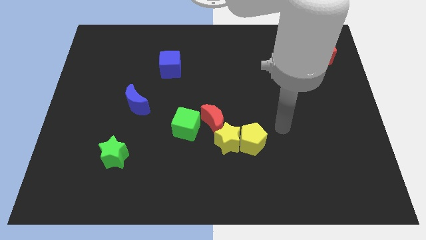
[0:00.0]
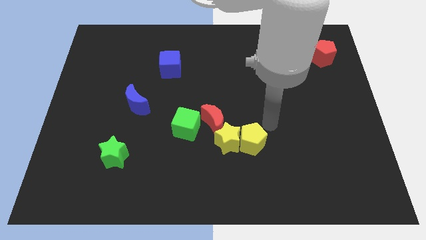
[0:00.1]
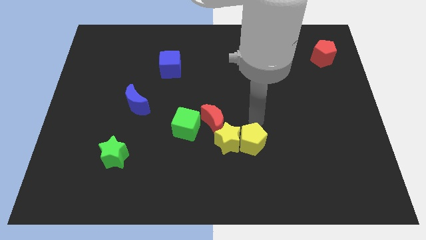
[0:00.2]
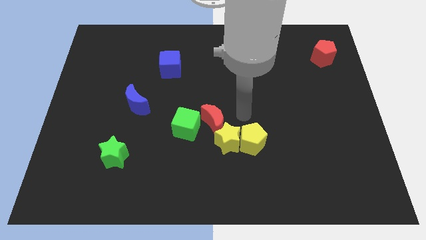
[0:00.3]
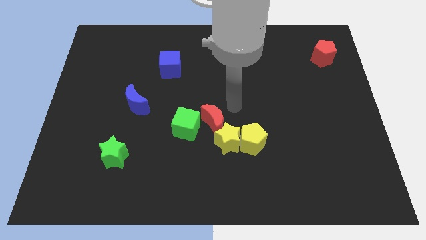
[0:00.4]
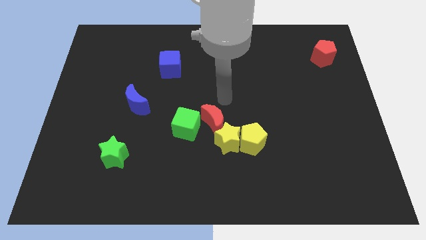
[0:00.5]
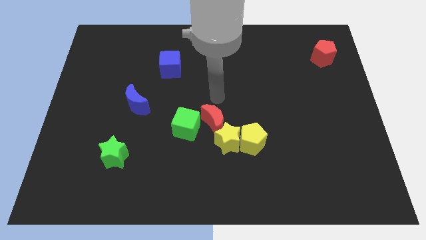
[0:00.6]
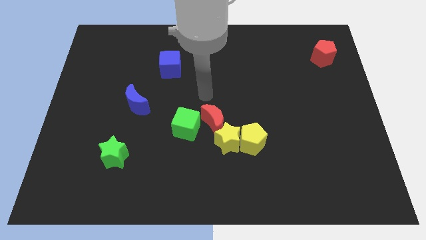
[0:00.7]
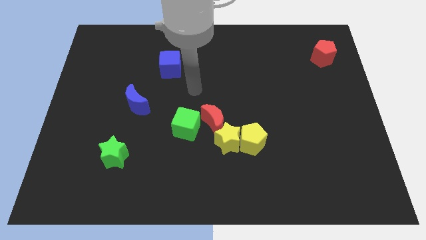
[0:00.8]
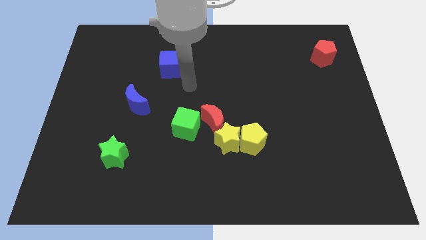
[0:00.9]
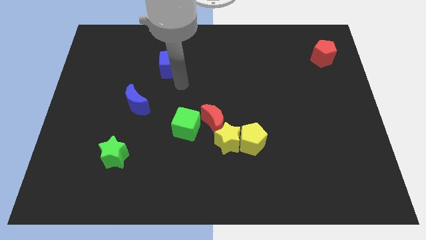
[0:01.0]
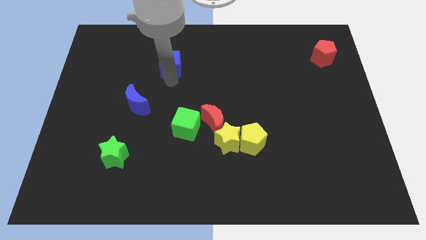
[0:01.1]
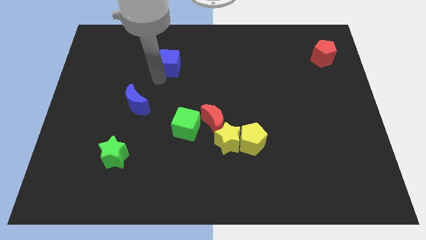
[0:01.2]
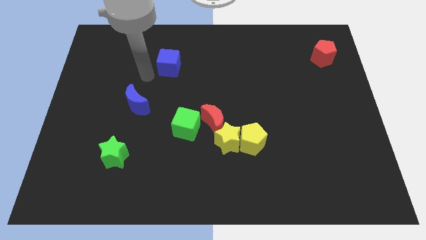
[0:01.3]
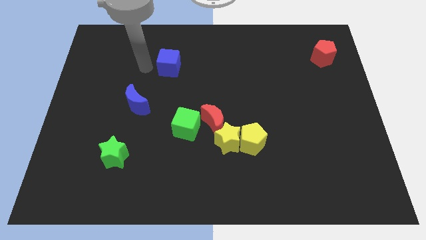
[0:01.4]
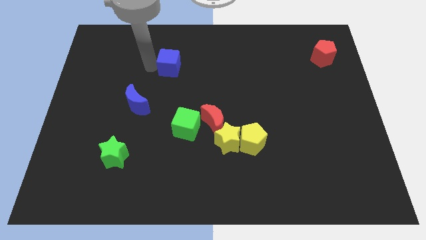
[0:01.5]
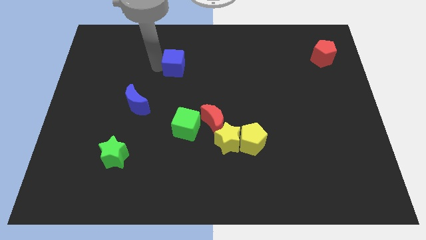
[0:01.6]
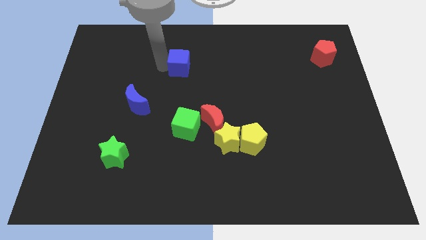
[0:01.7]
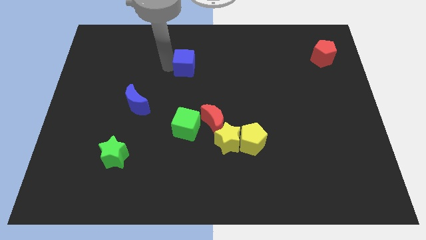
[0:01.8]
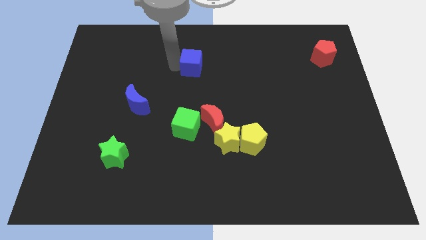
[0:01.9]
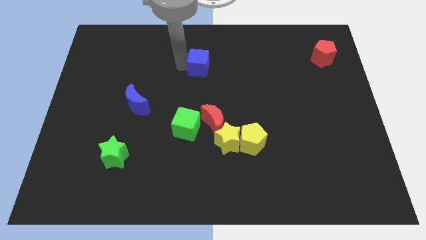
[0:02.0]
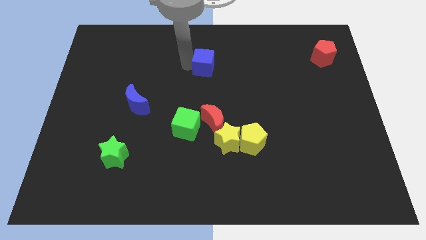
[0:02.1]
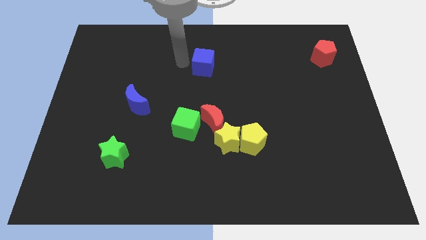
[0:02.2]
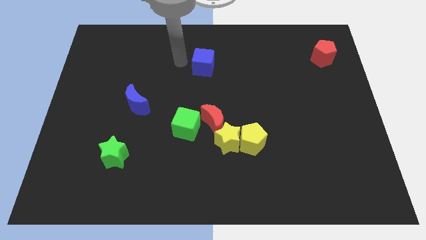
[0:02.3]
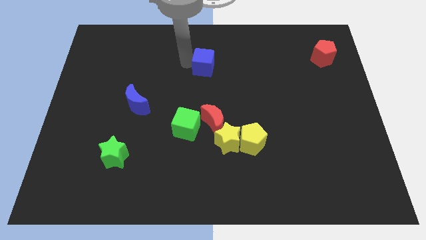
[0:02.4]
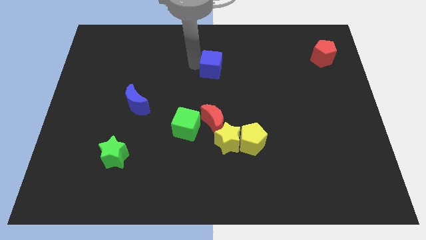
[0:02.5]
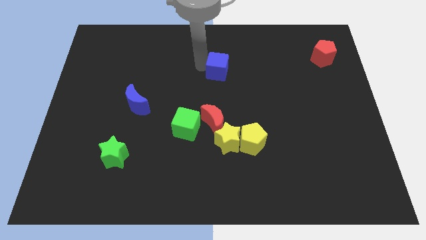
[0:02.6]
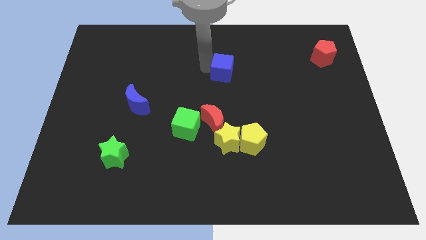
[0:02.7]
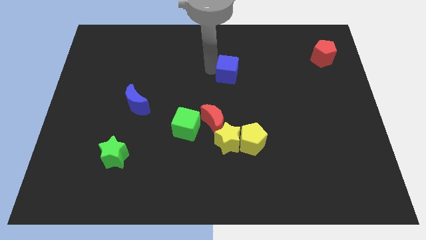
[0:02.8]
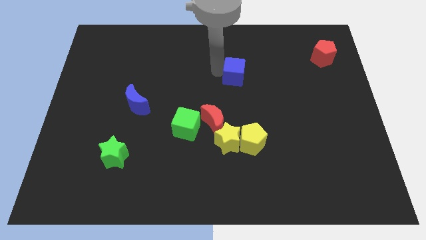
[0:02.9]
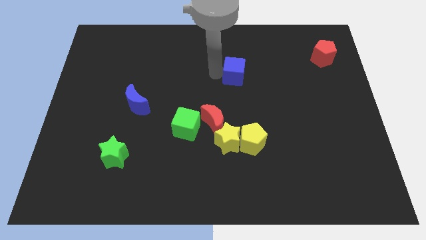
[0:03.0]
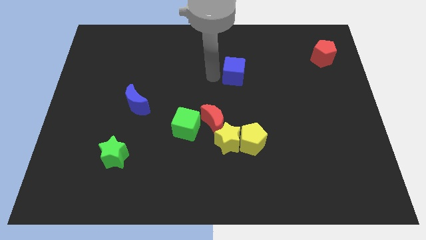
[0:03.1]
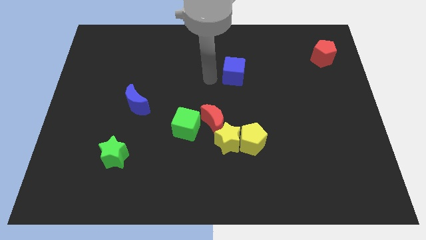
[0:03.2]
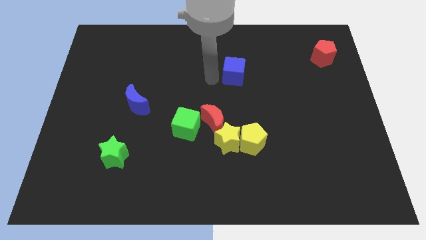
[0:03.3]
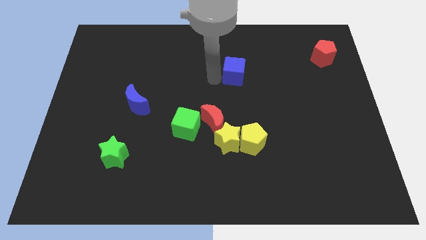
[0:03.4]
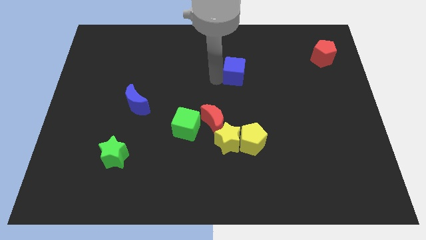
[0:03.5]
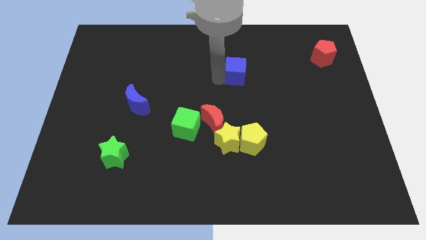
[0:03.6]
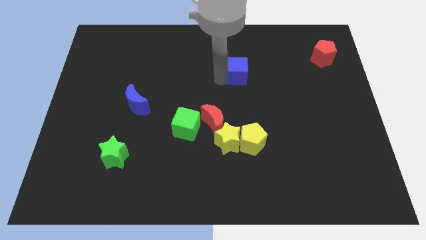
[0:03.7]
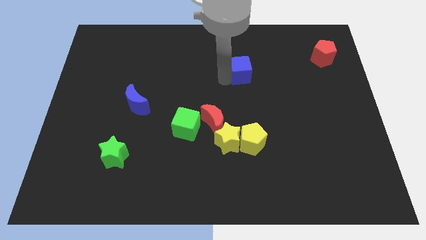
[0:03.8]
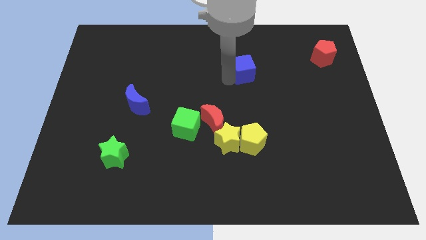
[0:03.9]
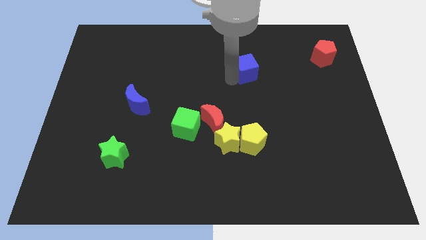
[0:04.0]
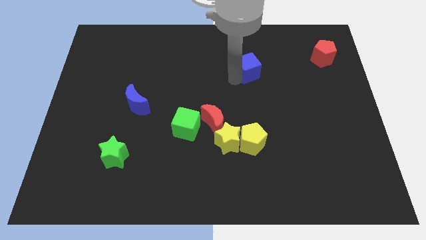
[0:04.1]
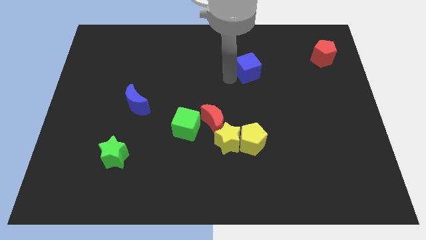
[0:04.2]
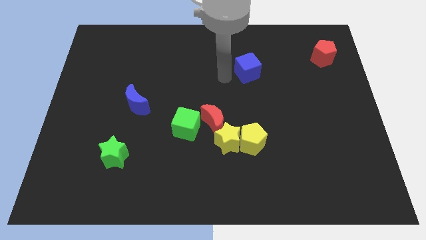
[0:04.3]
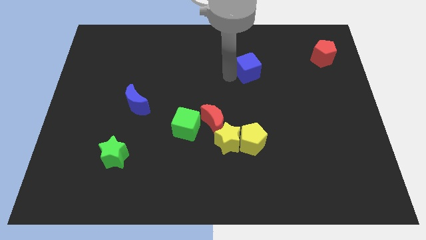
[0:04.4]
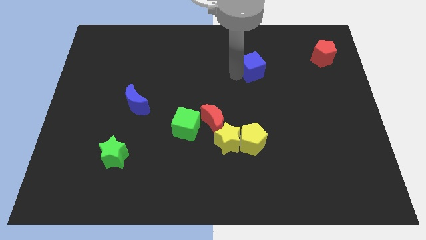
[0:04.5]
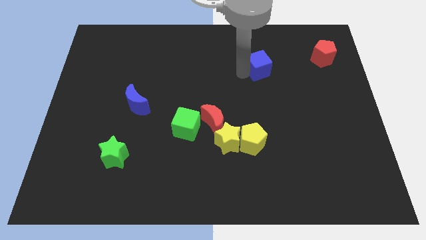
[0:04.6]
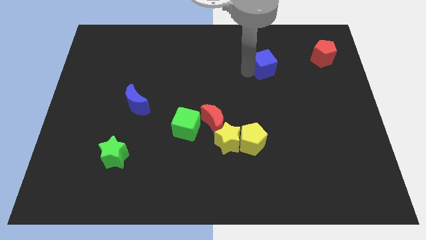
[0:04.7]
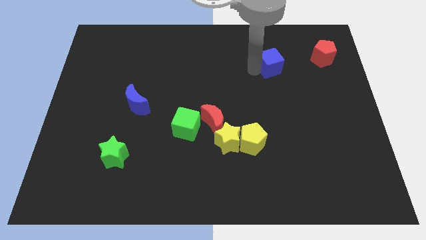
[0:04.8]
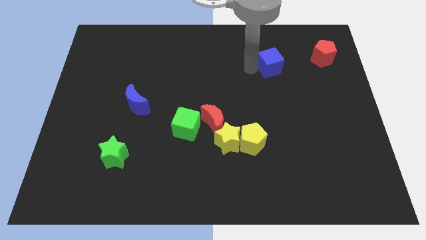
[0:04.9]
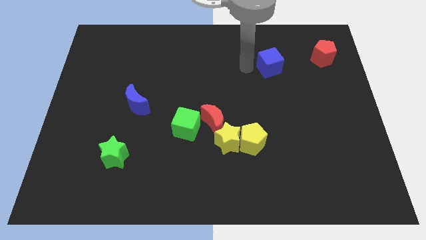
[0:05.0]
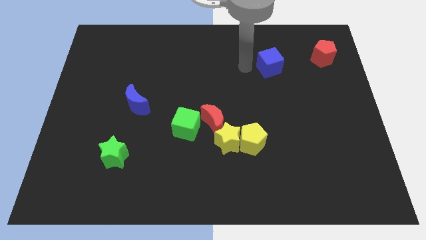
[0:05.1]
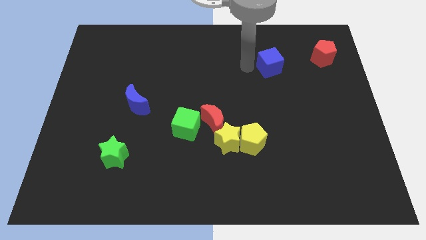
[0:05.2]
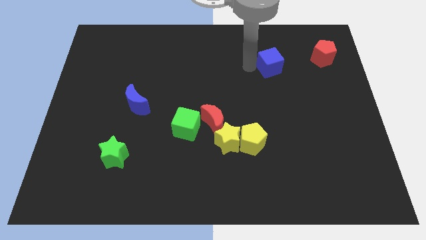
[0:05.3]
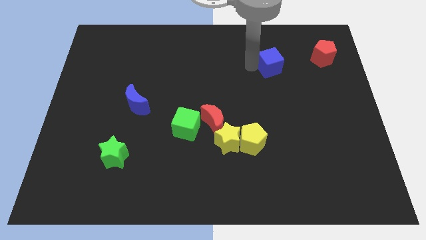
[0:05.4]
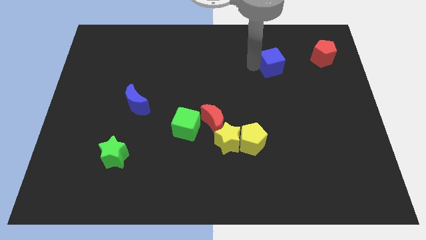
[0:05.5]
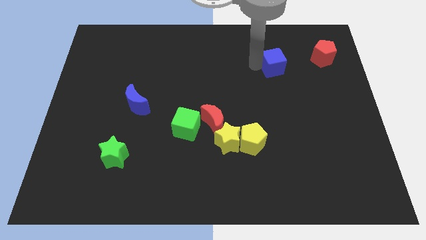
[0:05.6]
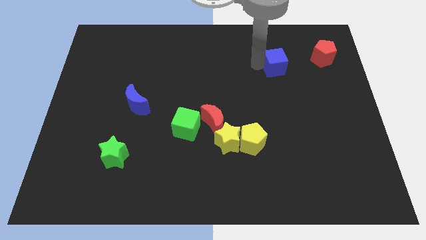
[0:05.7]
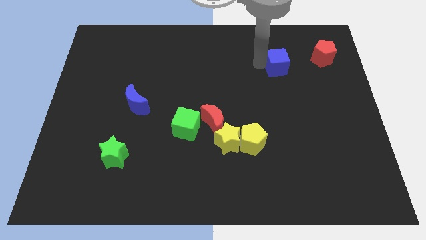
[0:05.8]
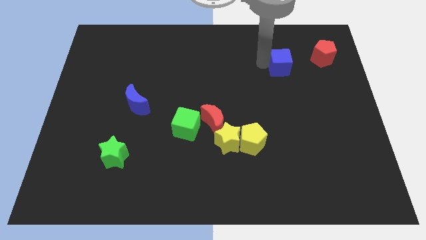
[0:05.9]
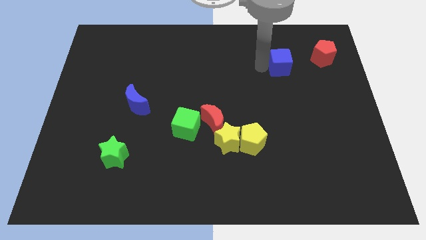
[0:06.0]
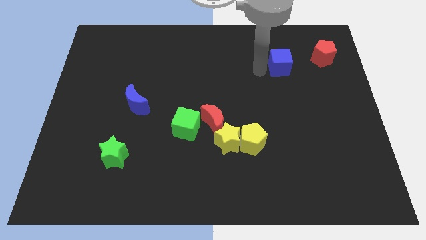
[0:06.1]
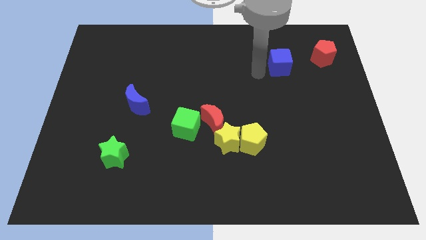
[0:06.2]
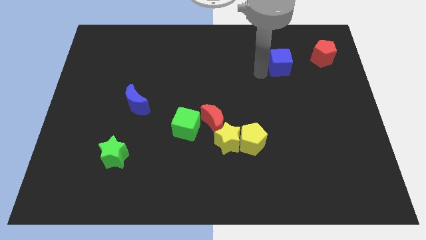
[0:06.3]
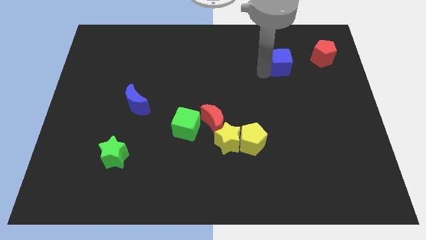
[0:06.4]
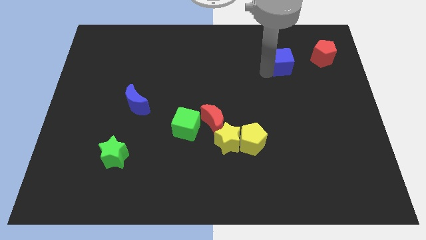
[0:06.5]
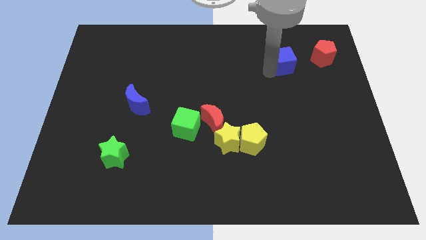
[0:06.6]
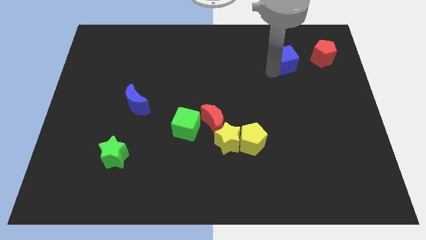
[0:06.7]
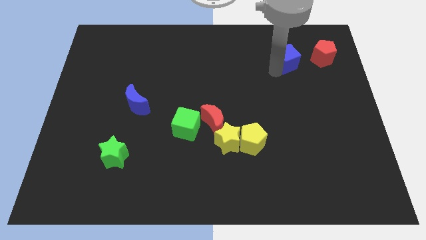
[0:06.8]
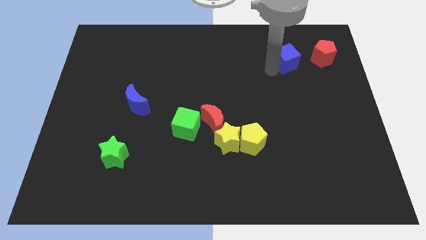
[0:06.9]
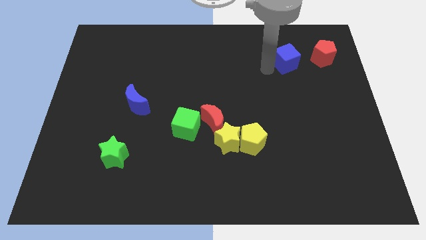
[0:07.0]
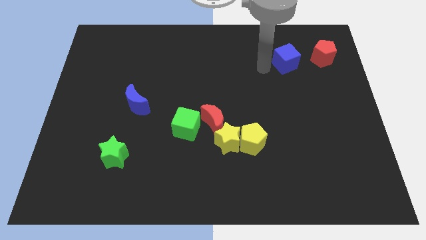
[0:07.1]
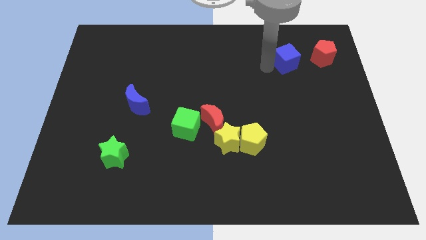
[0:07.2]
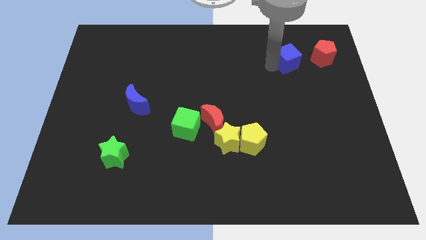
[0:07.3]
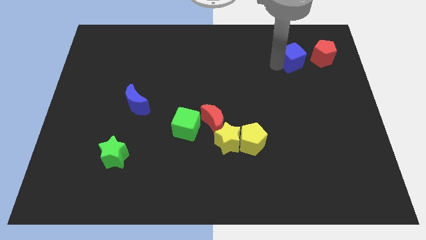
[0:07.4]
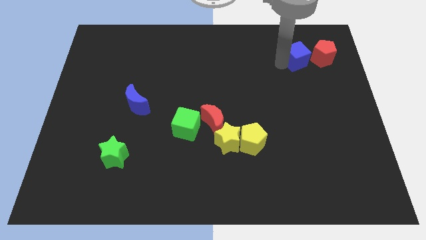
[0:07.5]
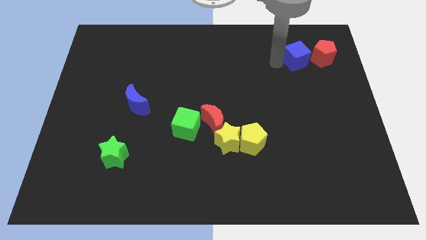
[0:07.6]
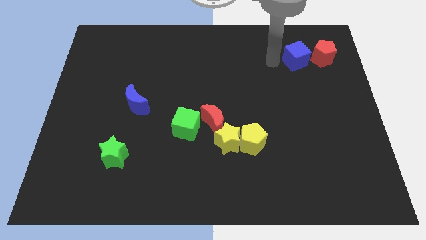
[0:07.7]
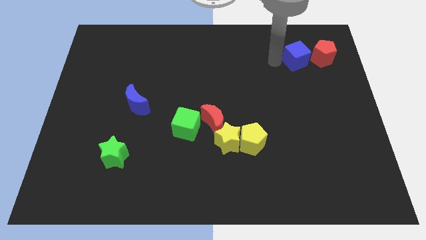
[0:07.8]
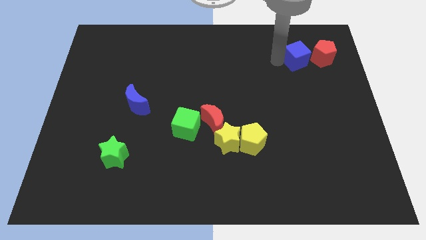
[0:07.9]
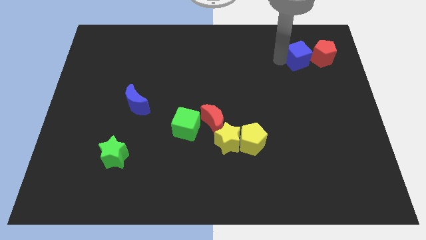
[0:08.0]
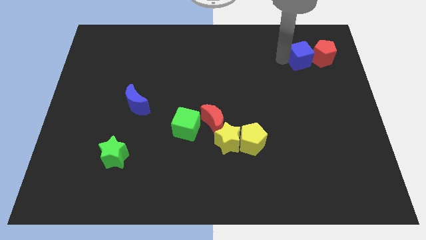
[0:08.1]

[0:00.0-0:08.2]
push the blue cube close to the red pentagon
